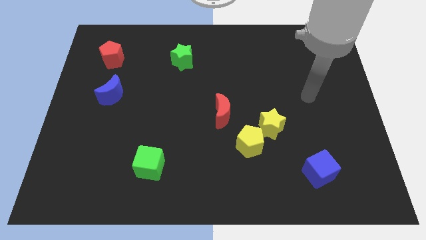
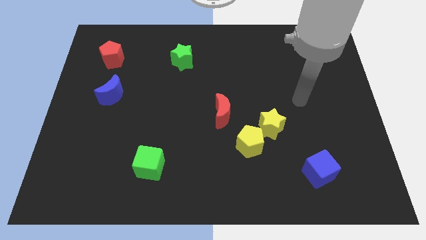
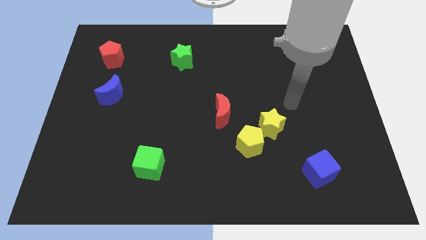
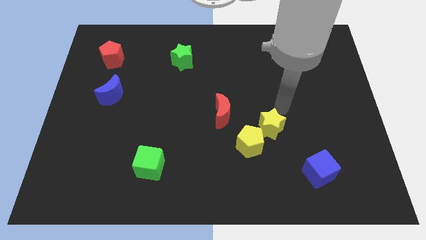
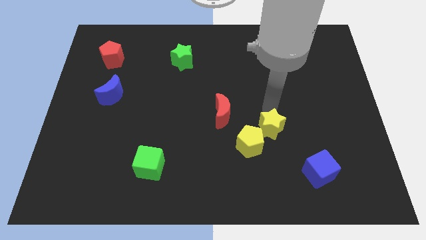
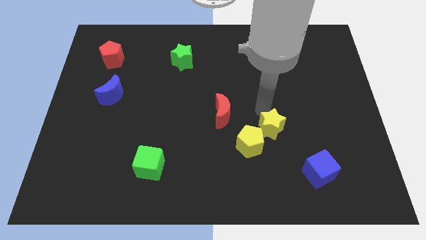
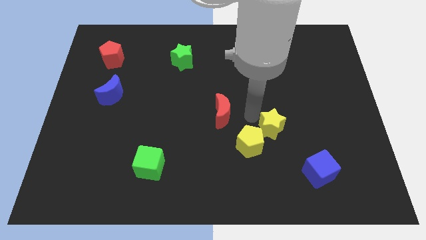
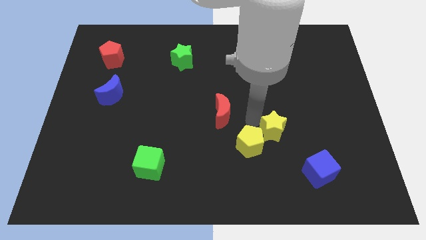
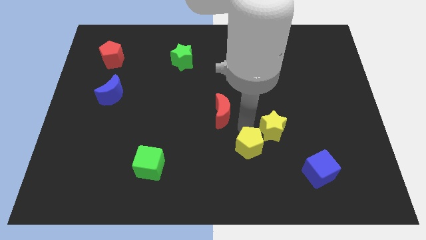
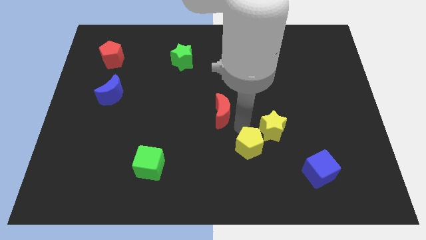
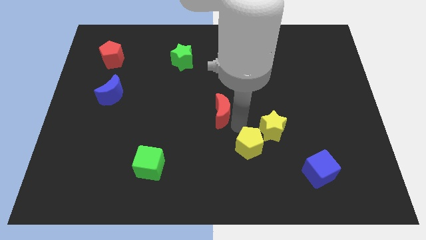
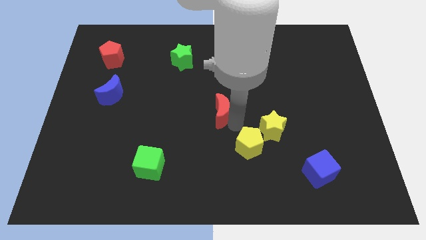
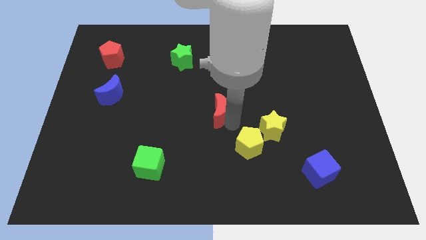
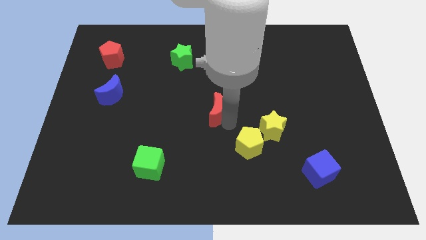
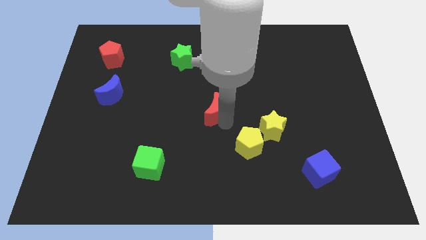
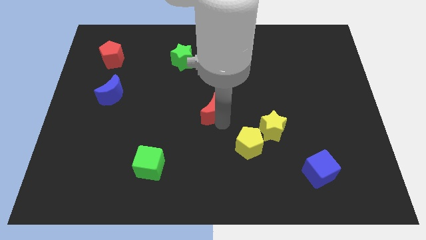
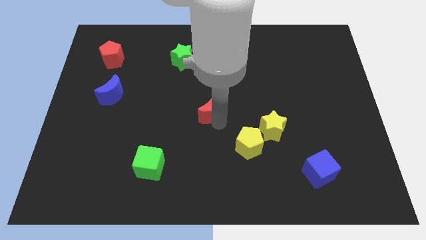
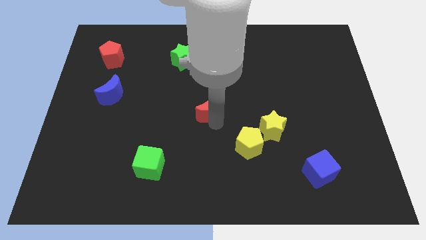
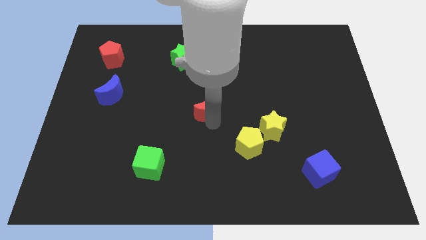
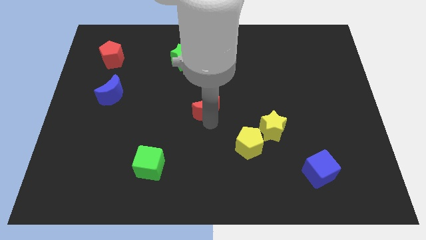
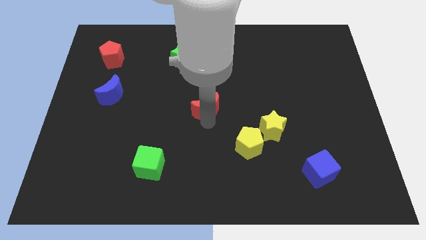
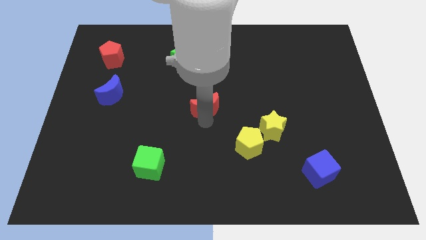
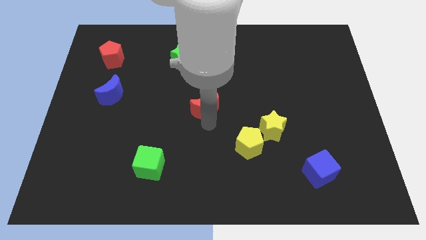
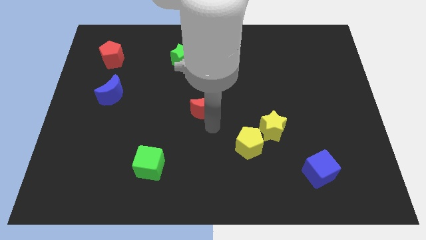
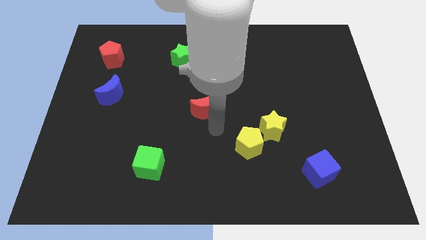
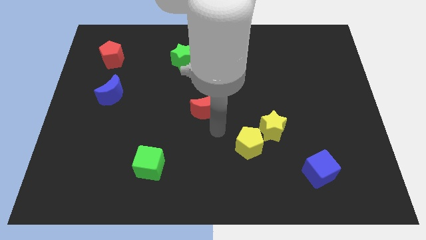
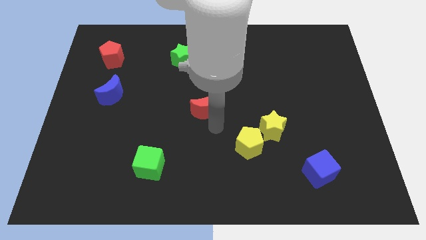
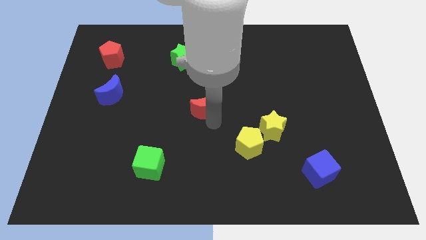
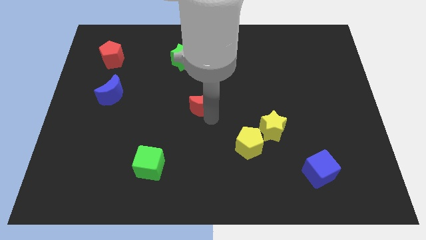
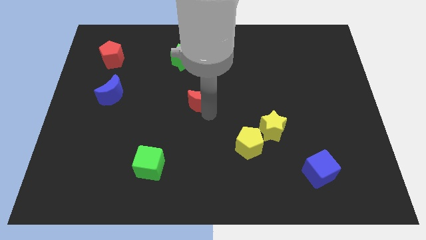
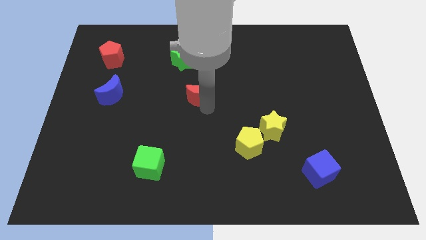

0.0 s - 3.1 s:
push the red moon diagonally up and left a bit

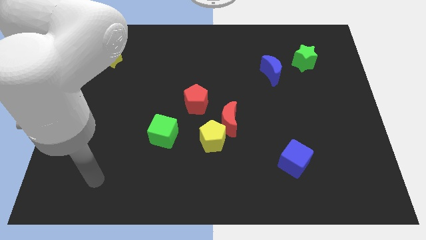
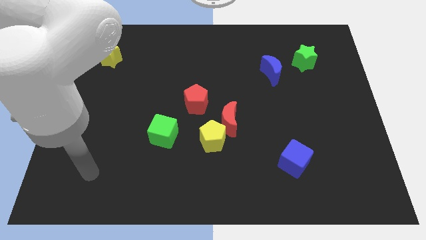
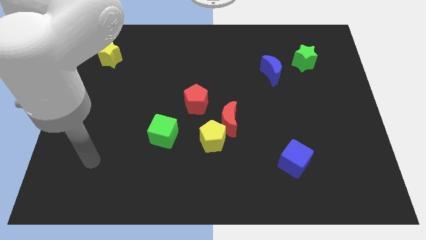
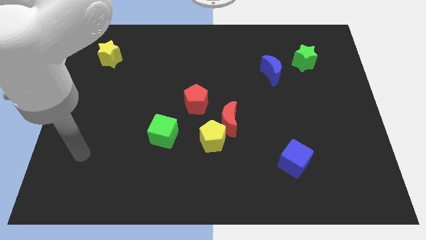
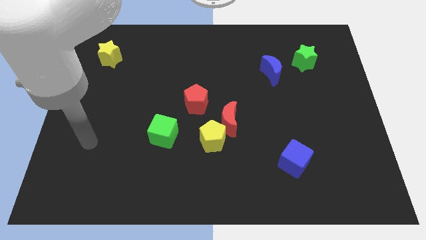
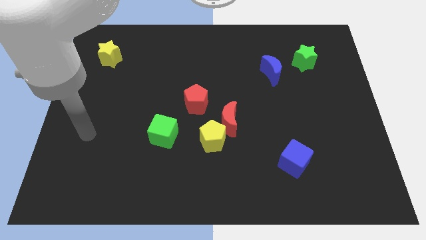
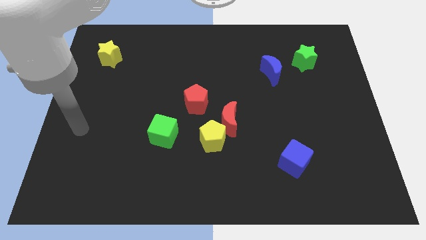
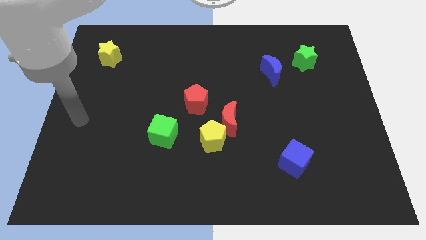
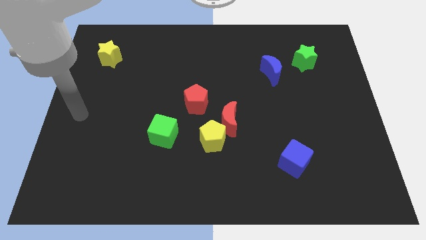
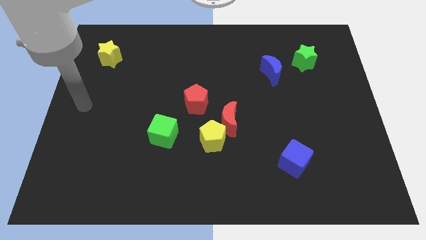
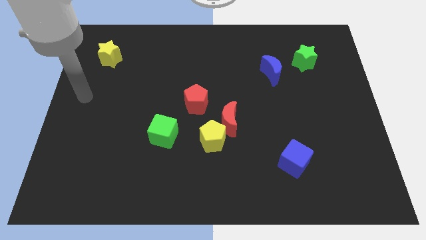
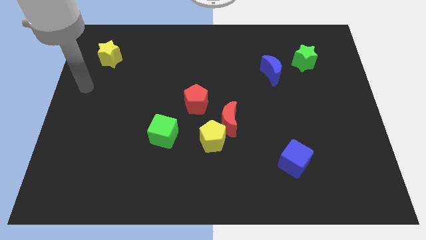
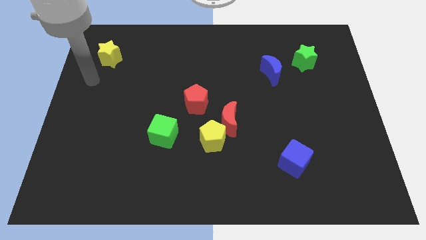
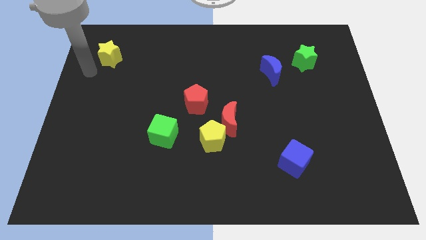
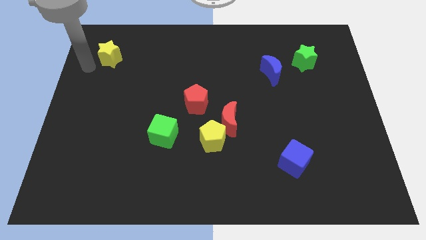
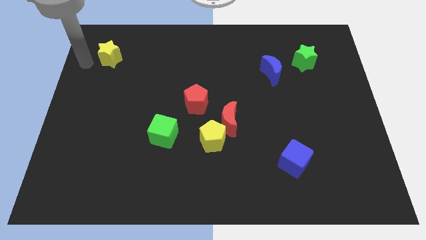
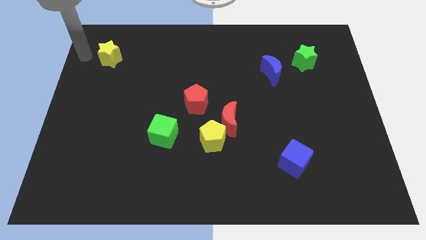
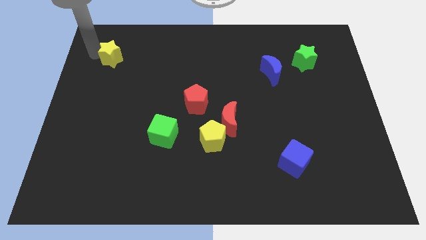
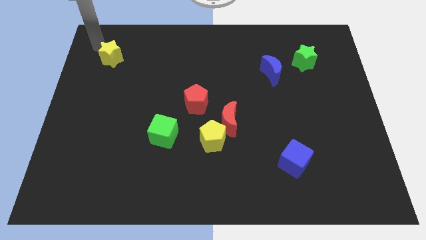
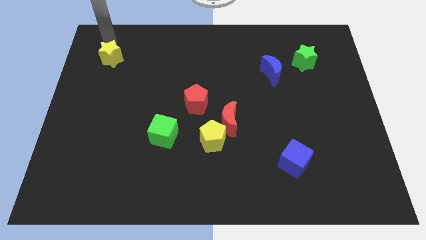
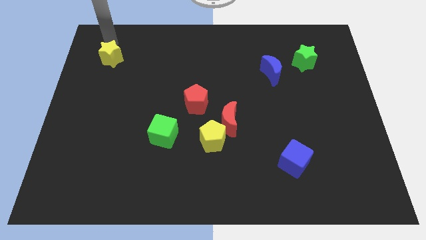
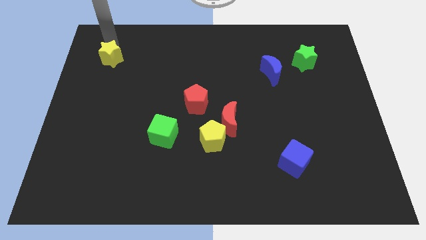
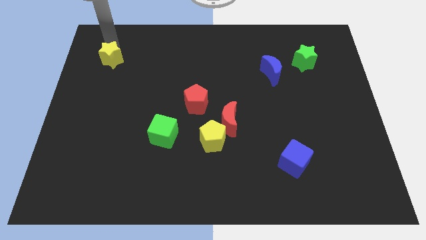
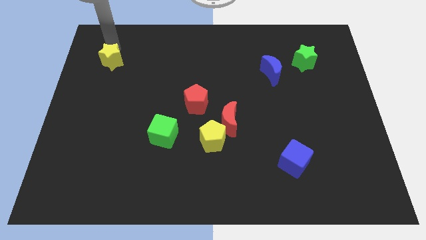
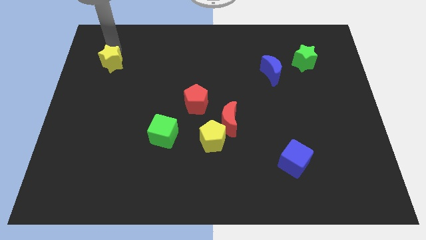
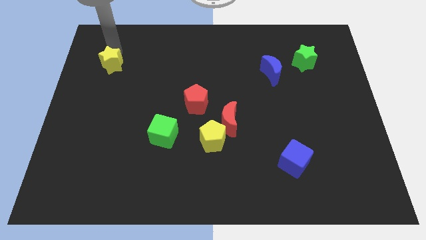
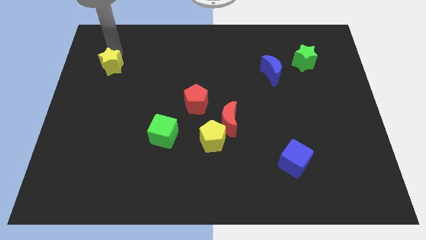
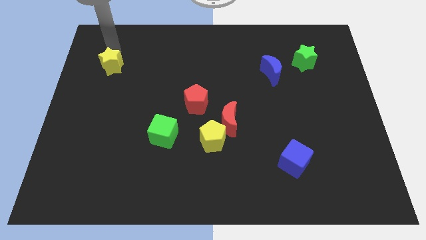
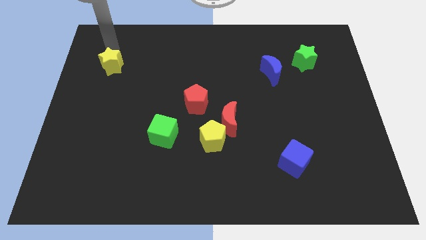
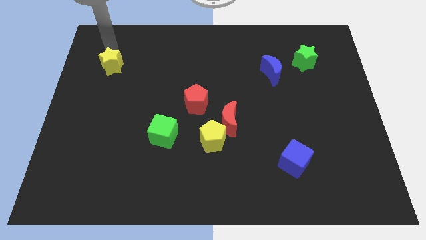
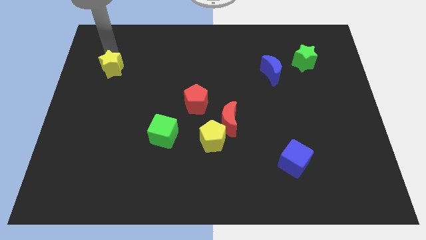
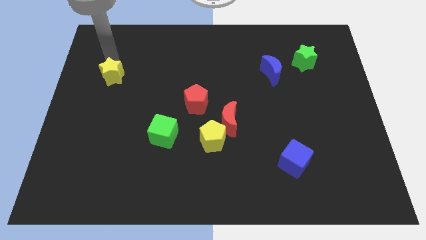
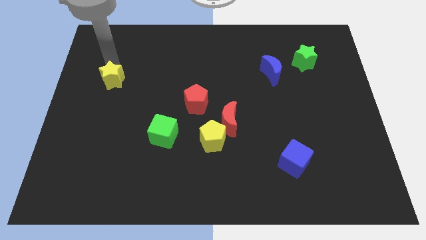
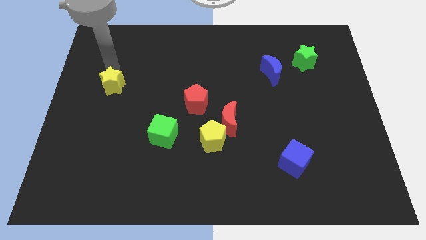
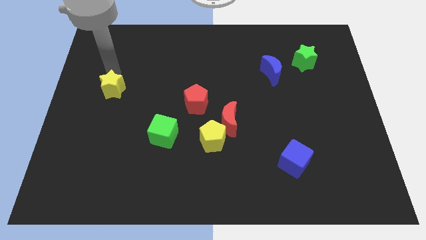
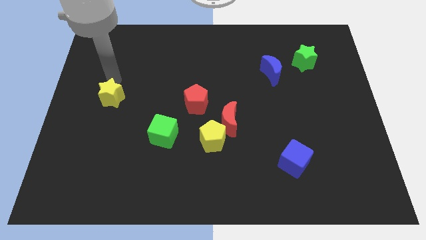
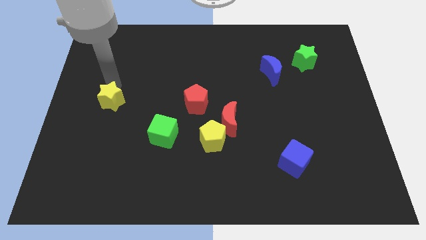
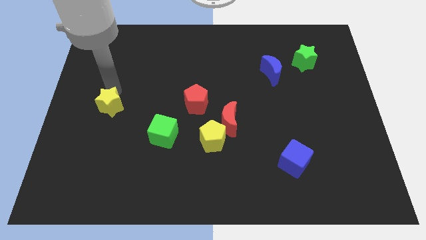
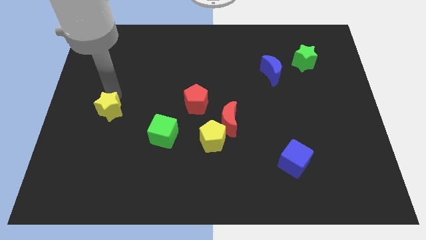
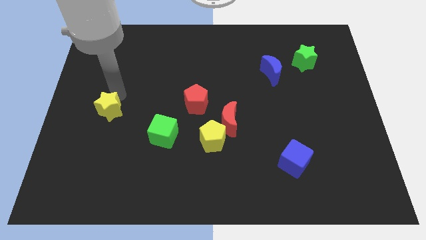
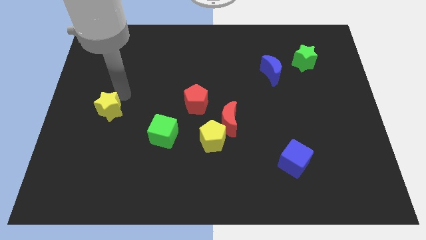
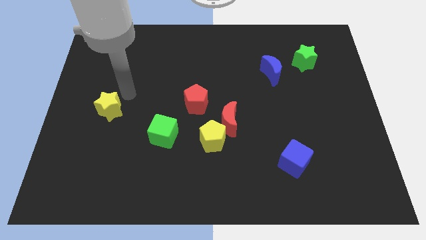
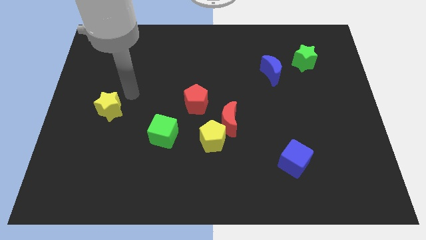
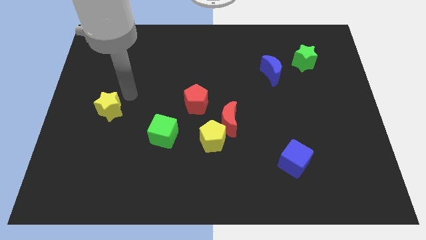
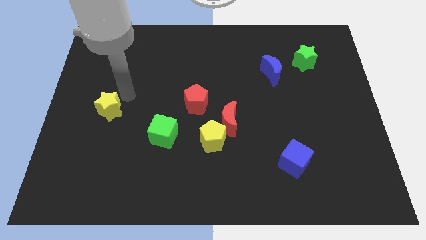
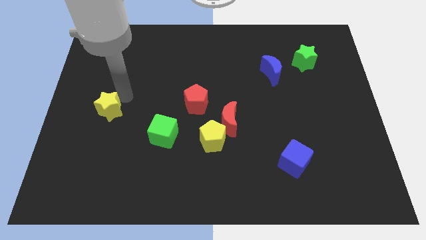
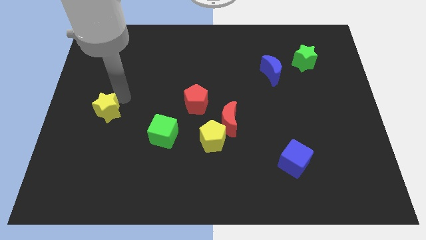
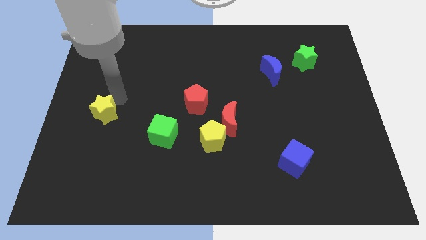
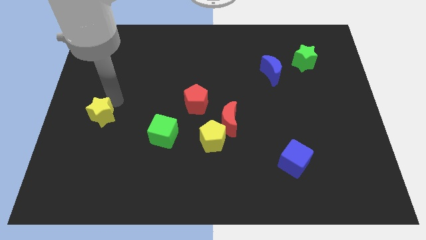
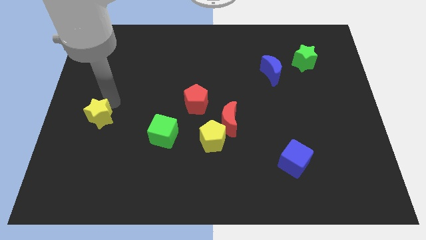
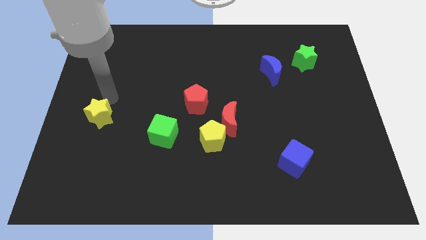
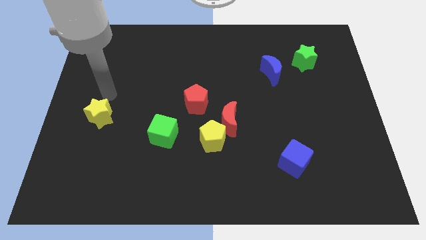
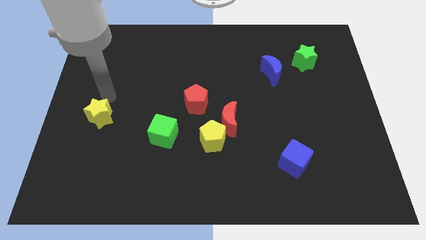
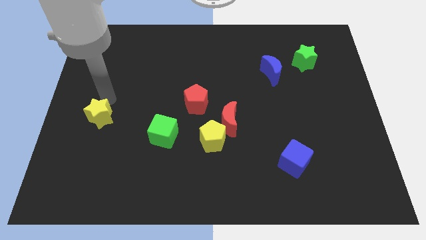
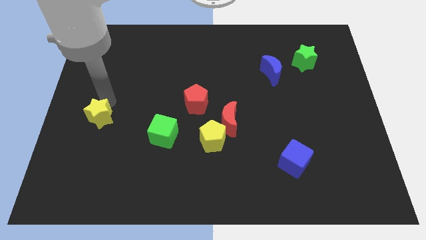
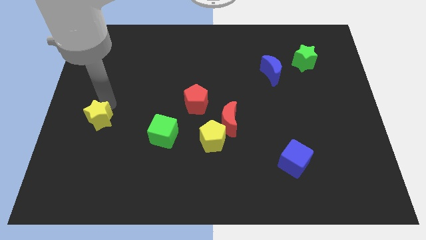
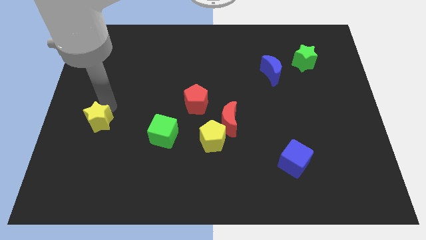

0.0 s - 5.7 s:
move the yellow star down
